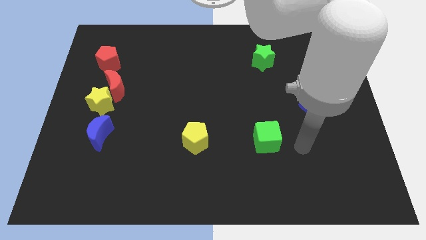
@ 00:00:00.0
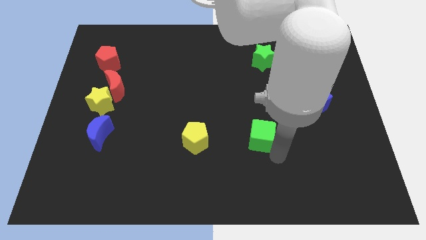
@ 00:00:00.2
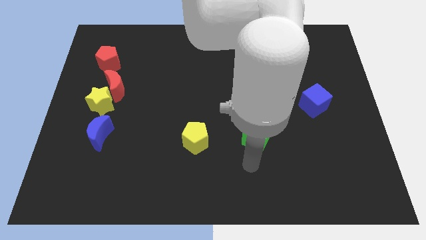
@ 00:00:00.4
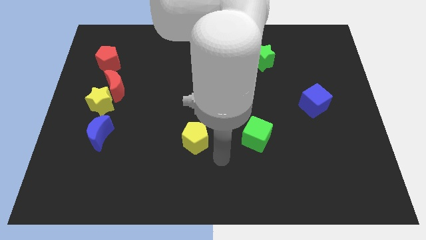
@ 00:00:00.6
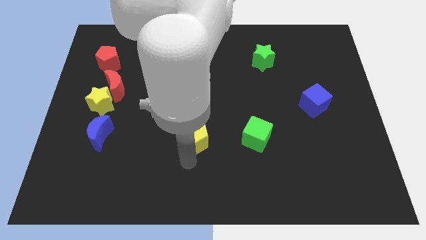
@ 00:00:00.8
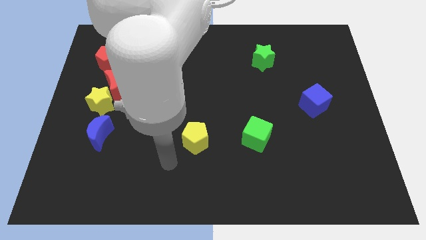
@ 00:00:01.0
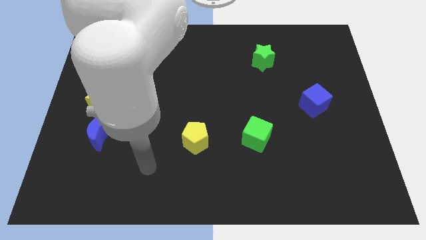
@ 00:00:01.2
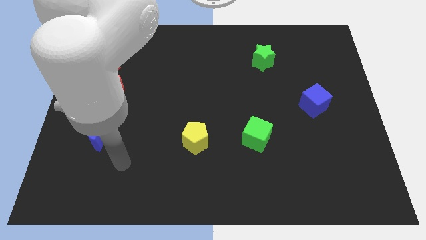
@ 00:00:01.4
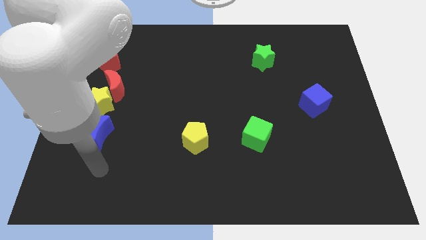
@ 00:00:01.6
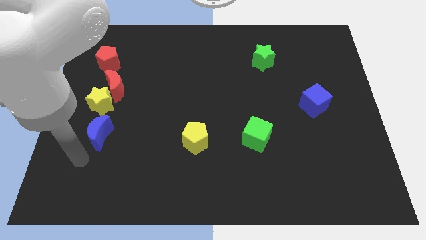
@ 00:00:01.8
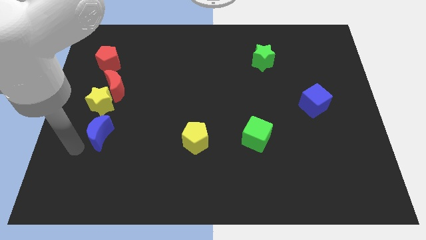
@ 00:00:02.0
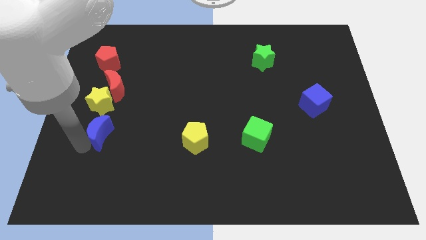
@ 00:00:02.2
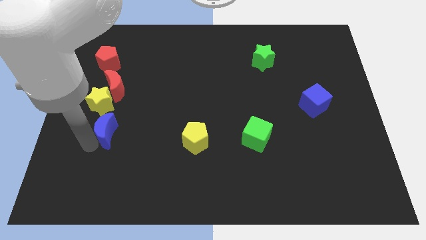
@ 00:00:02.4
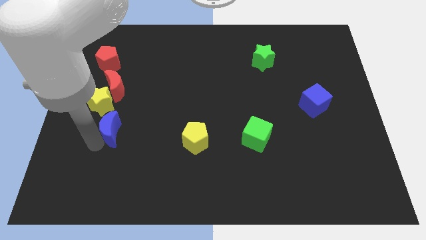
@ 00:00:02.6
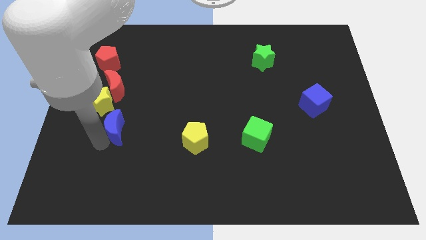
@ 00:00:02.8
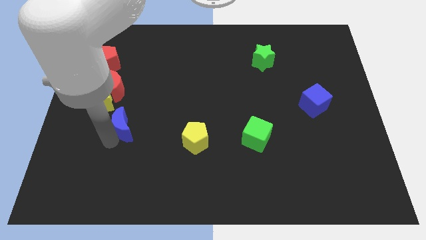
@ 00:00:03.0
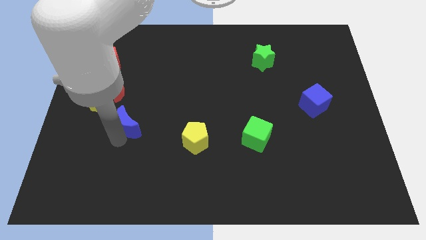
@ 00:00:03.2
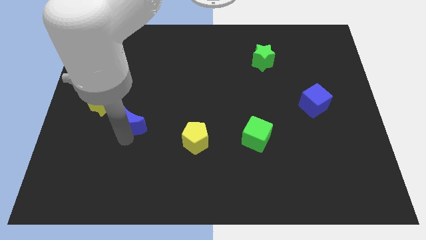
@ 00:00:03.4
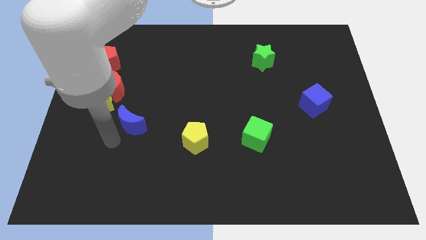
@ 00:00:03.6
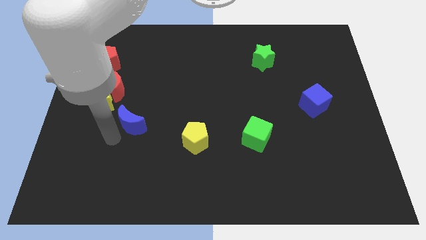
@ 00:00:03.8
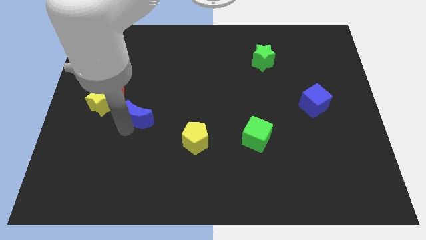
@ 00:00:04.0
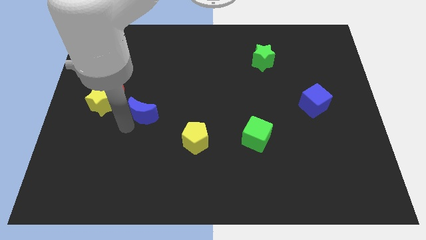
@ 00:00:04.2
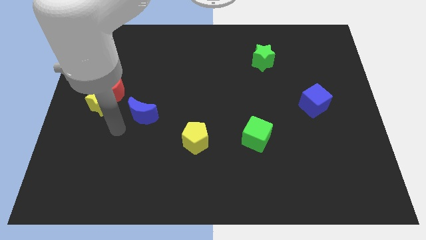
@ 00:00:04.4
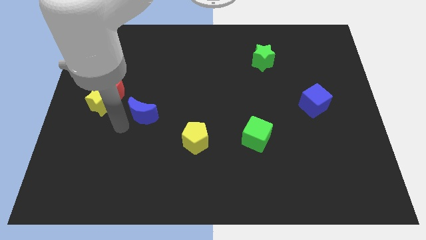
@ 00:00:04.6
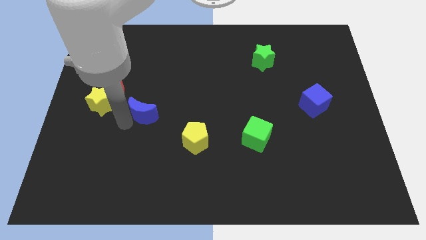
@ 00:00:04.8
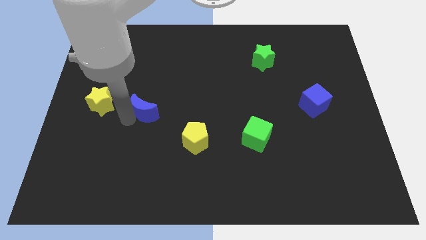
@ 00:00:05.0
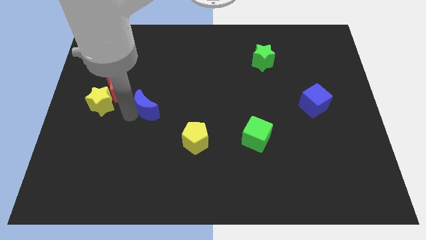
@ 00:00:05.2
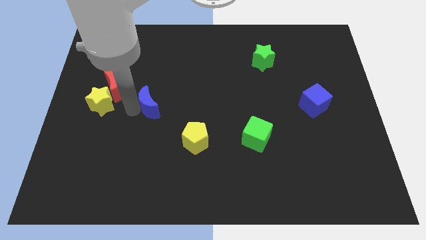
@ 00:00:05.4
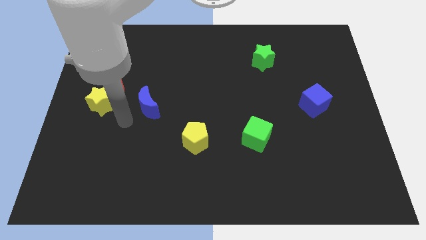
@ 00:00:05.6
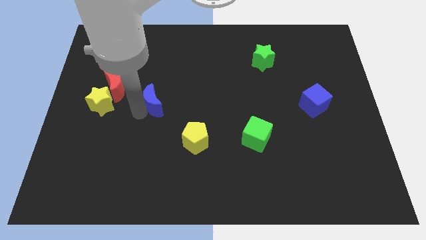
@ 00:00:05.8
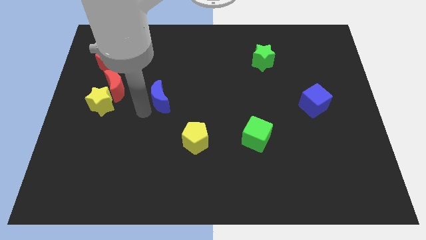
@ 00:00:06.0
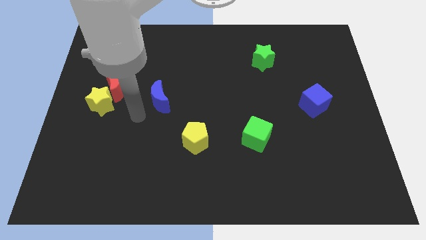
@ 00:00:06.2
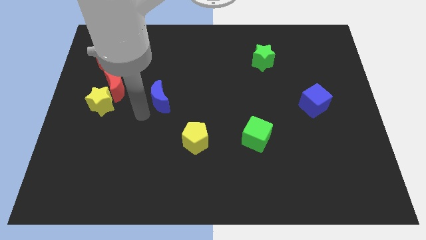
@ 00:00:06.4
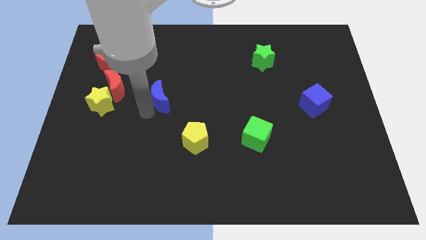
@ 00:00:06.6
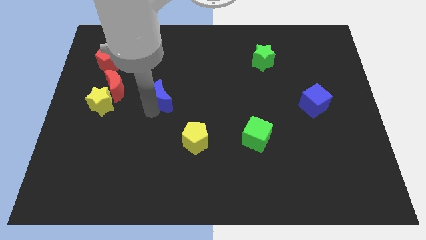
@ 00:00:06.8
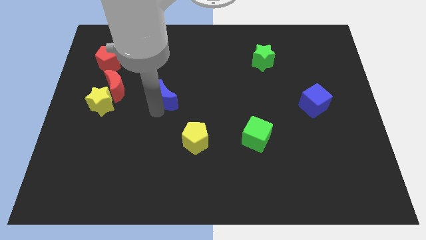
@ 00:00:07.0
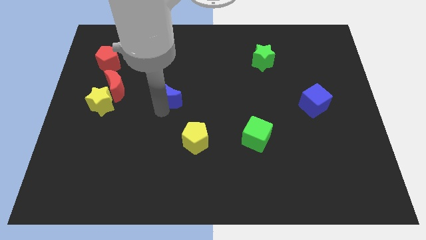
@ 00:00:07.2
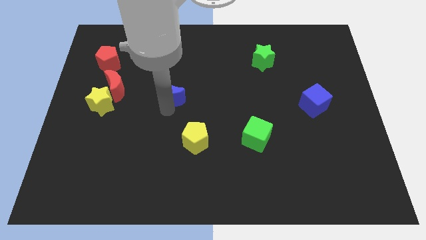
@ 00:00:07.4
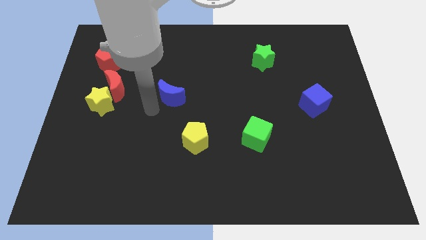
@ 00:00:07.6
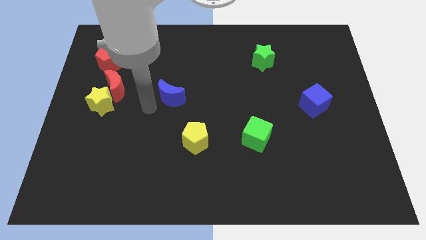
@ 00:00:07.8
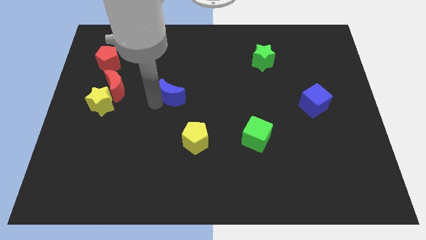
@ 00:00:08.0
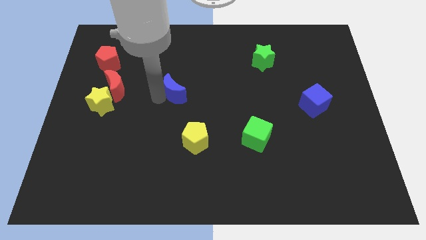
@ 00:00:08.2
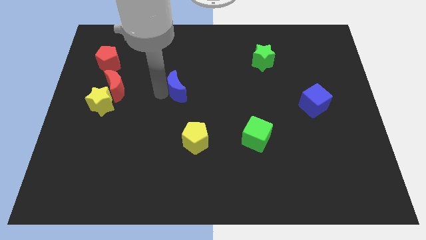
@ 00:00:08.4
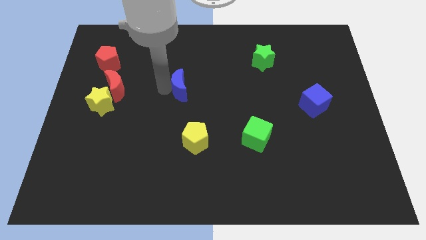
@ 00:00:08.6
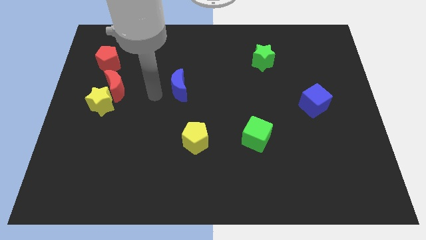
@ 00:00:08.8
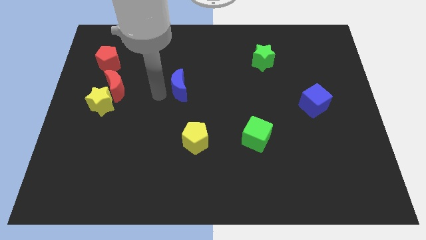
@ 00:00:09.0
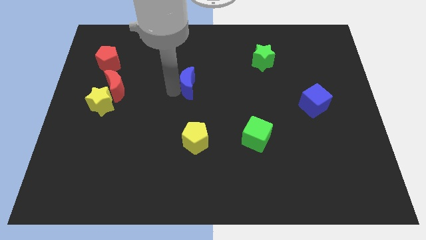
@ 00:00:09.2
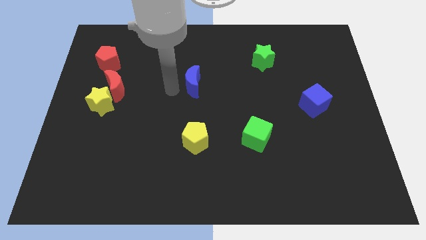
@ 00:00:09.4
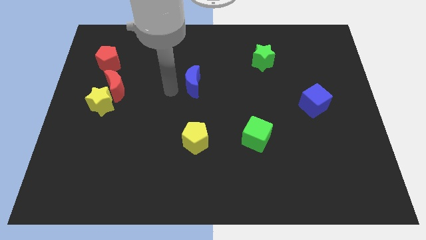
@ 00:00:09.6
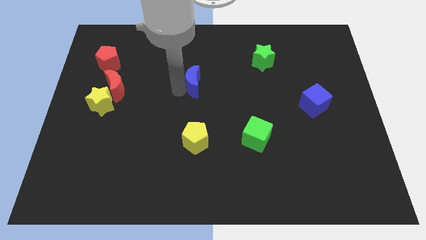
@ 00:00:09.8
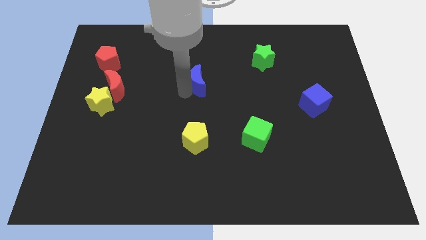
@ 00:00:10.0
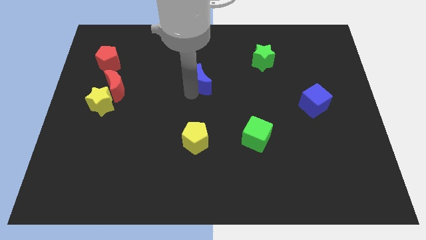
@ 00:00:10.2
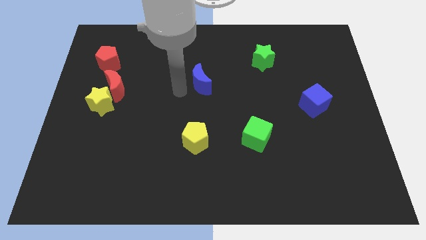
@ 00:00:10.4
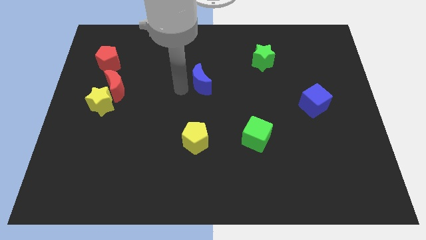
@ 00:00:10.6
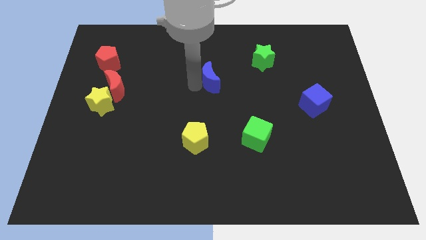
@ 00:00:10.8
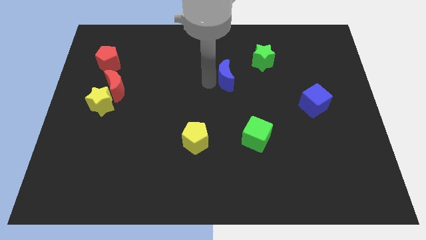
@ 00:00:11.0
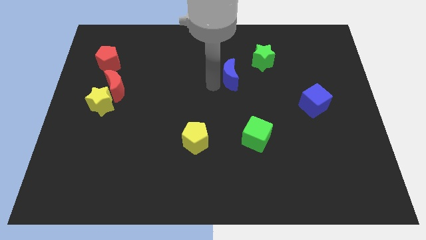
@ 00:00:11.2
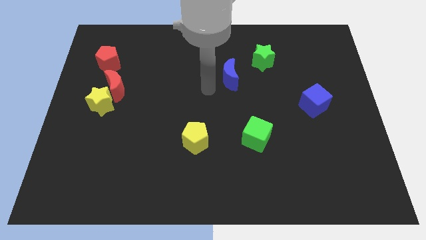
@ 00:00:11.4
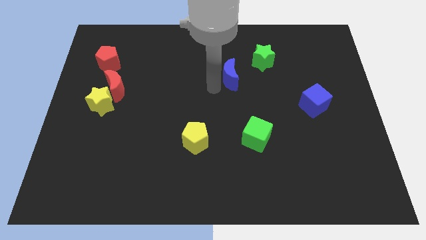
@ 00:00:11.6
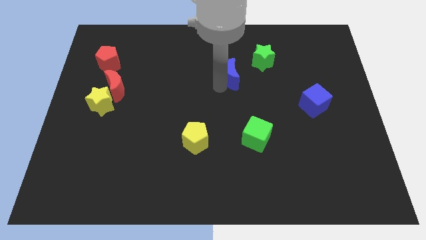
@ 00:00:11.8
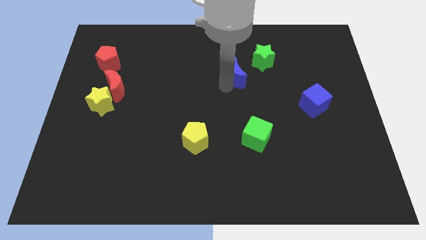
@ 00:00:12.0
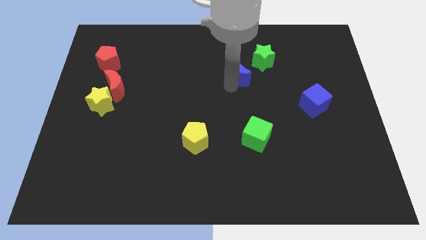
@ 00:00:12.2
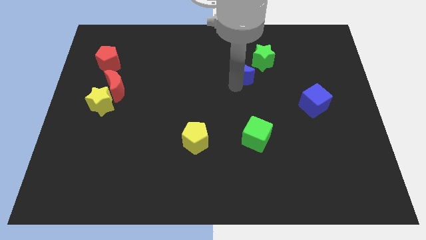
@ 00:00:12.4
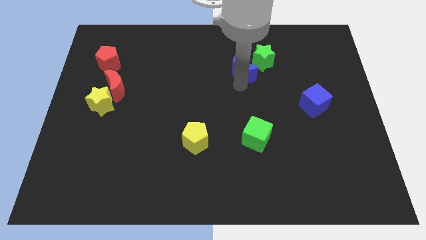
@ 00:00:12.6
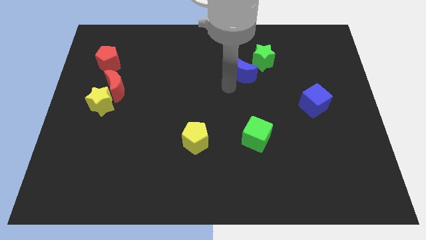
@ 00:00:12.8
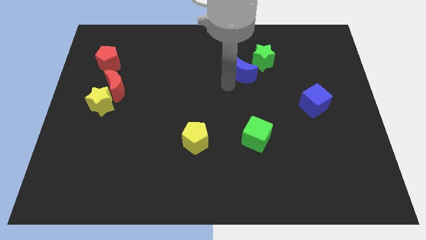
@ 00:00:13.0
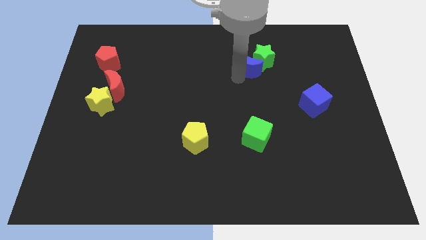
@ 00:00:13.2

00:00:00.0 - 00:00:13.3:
put the blue moon next to the green star

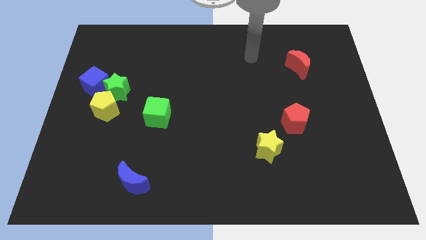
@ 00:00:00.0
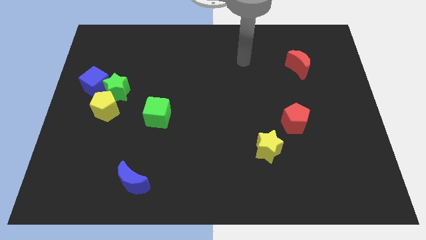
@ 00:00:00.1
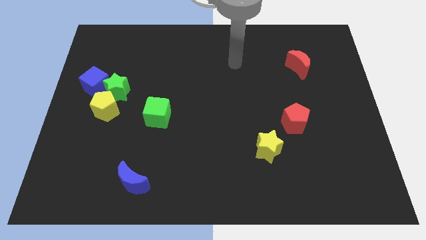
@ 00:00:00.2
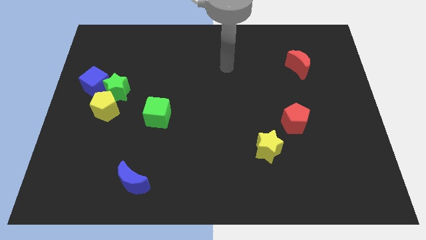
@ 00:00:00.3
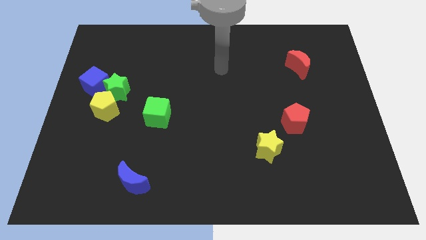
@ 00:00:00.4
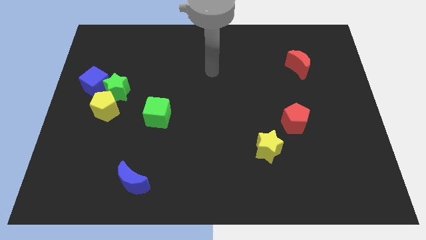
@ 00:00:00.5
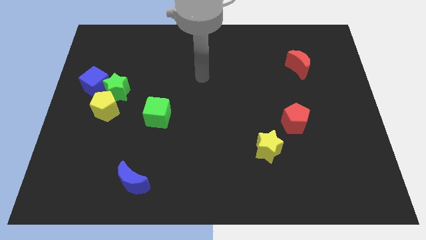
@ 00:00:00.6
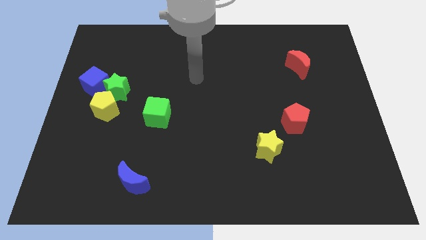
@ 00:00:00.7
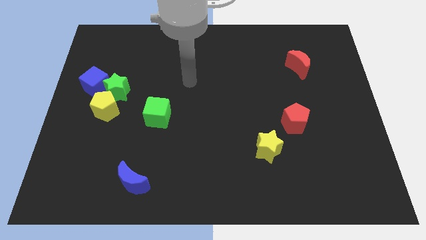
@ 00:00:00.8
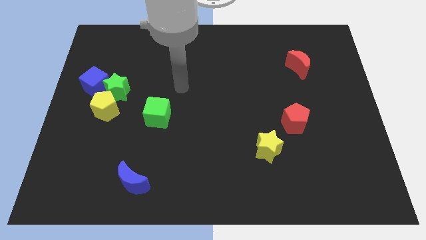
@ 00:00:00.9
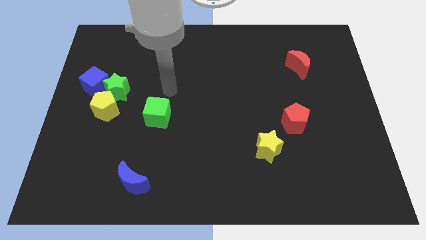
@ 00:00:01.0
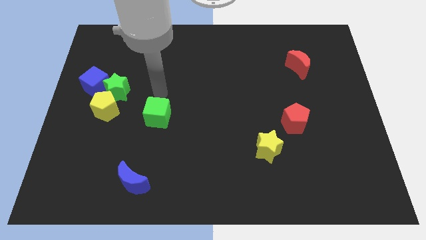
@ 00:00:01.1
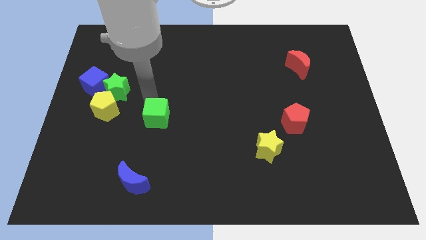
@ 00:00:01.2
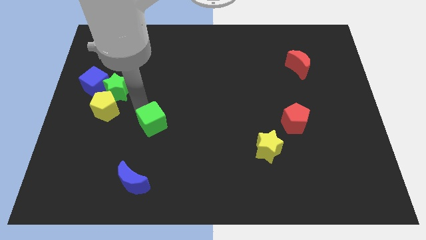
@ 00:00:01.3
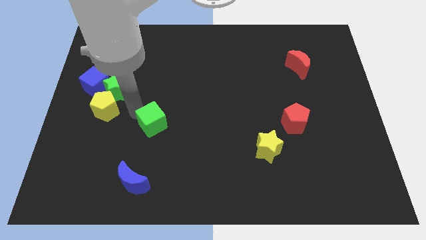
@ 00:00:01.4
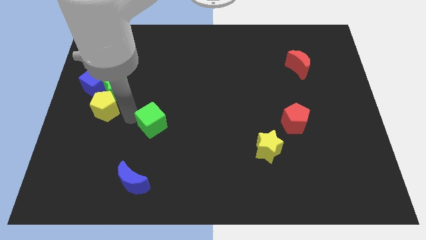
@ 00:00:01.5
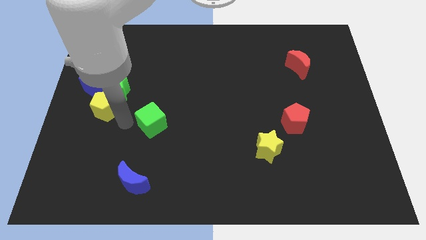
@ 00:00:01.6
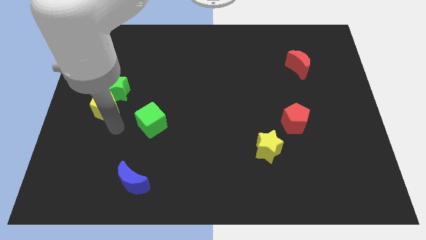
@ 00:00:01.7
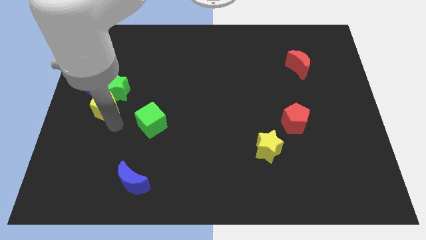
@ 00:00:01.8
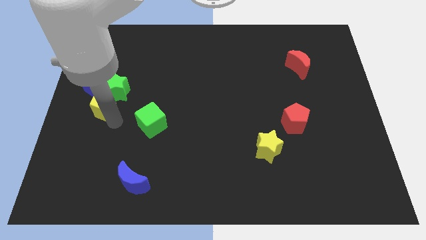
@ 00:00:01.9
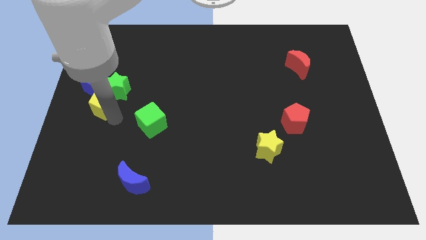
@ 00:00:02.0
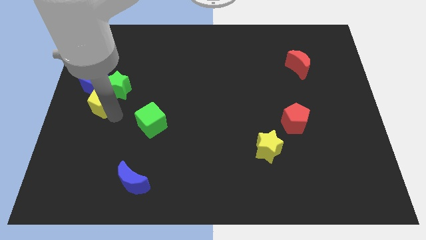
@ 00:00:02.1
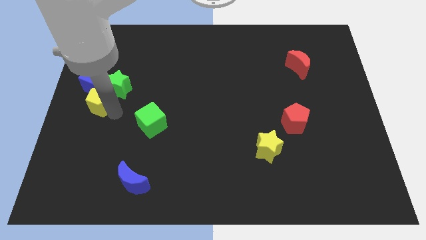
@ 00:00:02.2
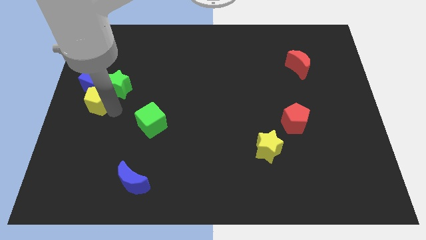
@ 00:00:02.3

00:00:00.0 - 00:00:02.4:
slide the yellow pentagon close to the blue cube
